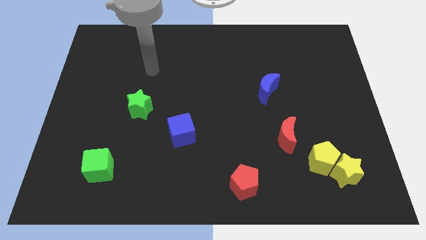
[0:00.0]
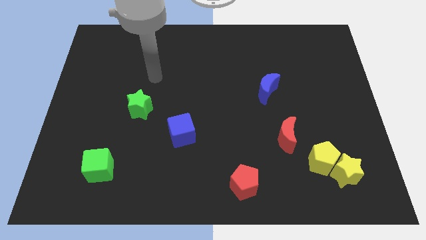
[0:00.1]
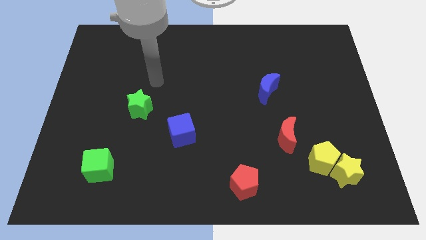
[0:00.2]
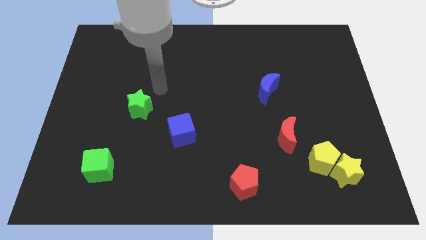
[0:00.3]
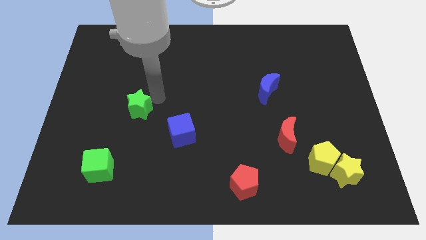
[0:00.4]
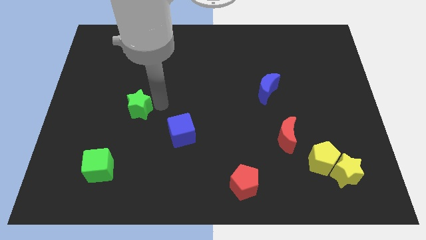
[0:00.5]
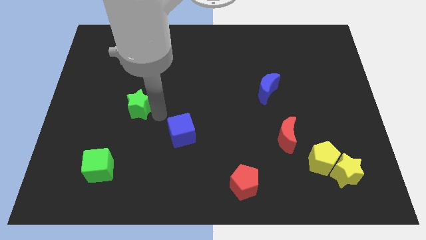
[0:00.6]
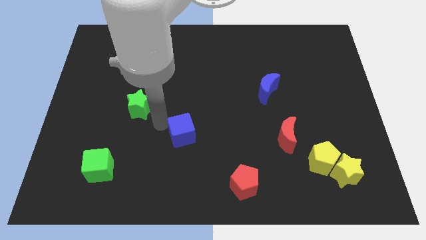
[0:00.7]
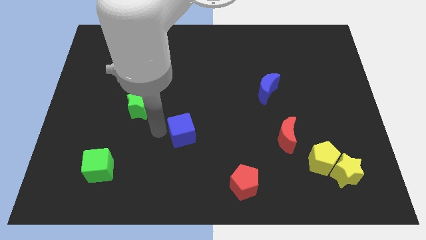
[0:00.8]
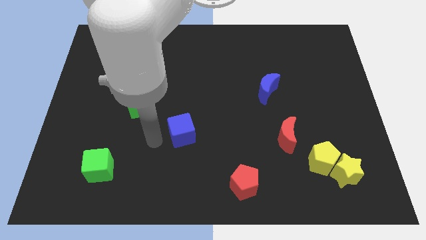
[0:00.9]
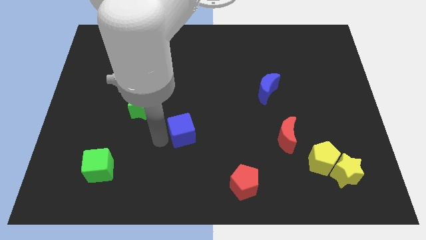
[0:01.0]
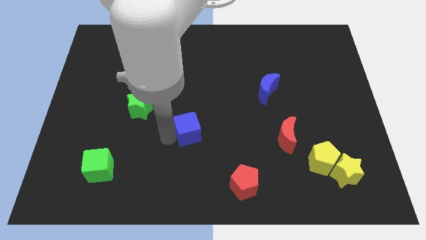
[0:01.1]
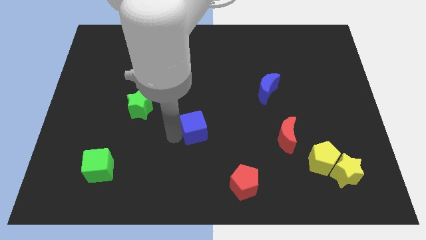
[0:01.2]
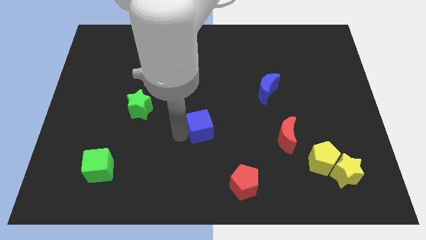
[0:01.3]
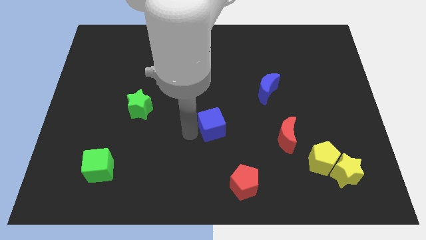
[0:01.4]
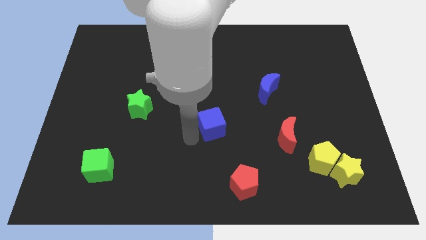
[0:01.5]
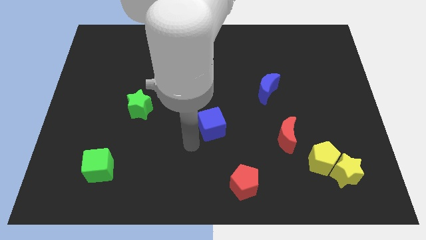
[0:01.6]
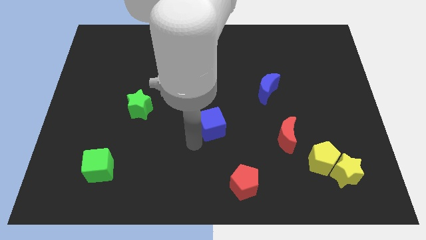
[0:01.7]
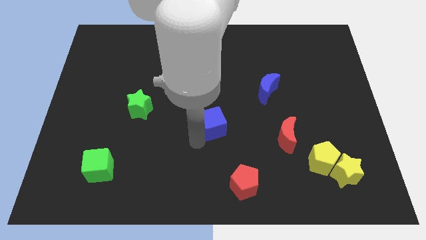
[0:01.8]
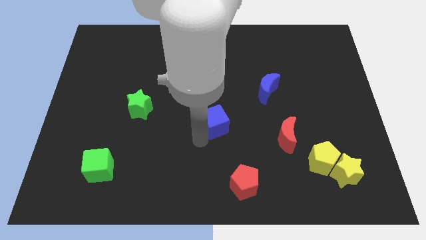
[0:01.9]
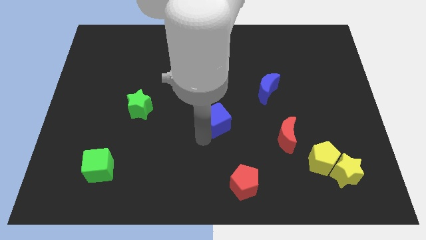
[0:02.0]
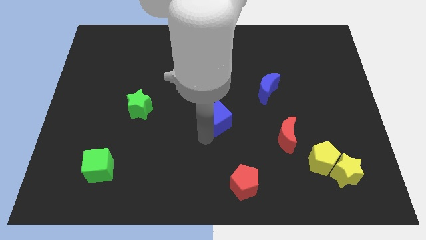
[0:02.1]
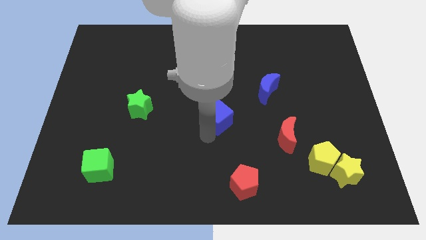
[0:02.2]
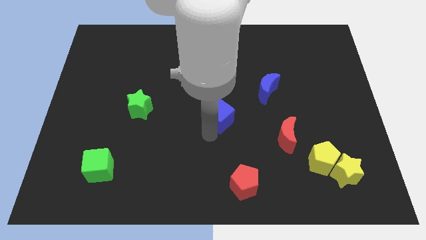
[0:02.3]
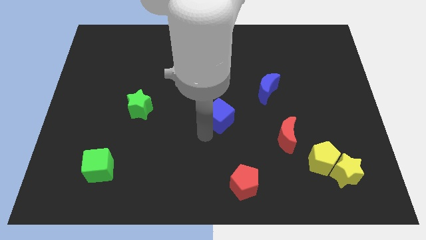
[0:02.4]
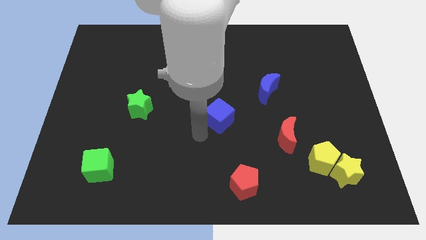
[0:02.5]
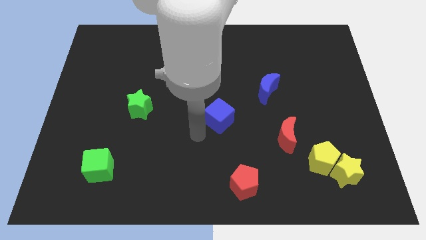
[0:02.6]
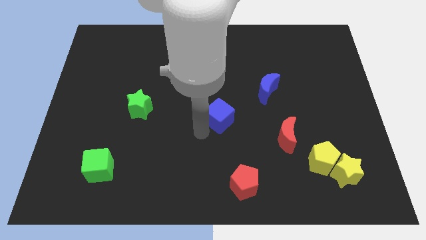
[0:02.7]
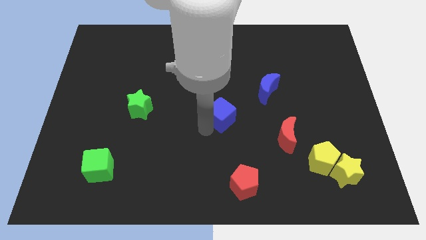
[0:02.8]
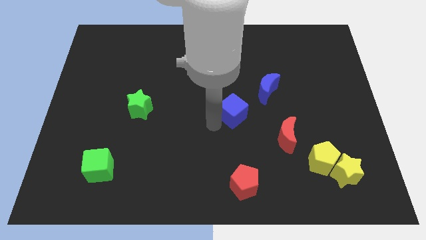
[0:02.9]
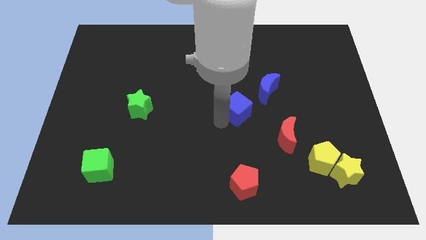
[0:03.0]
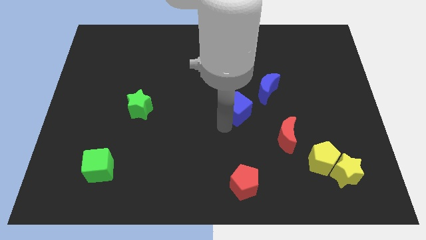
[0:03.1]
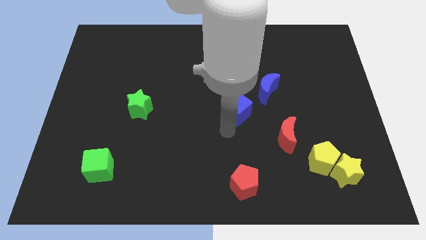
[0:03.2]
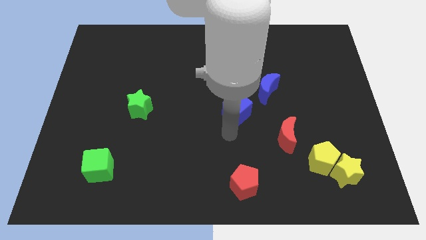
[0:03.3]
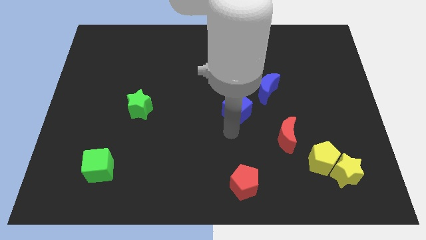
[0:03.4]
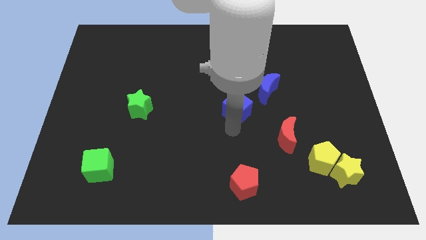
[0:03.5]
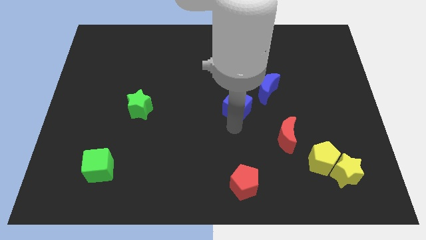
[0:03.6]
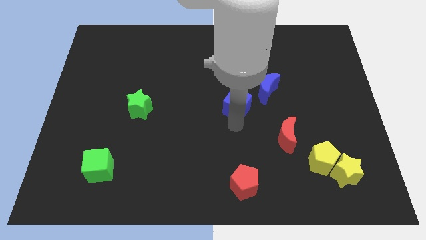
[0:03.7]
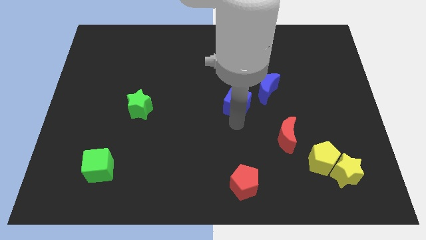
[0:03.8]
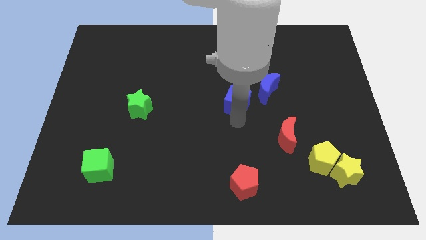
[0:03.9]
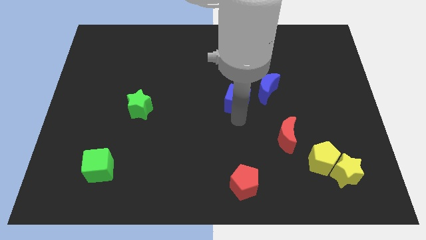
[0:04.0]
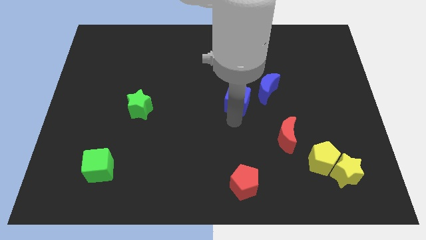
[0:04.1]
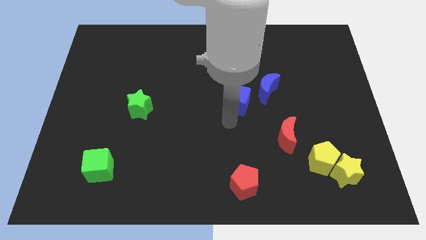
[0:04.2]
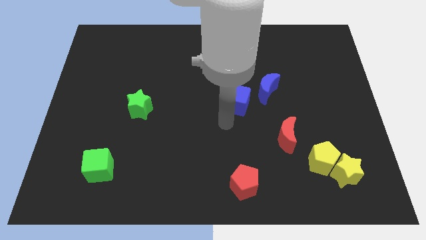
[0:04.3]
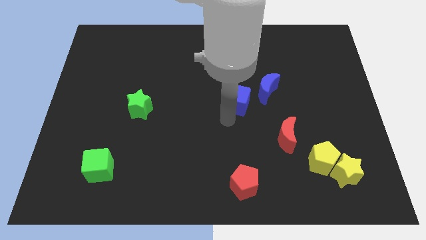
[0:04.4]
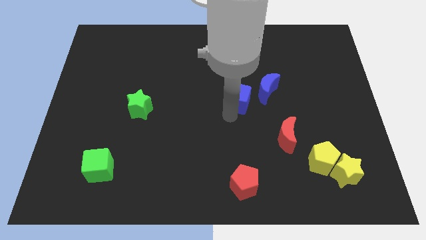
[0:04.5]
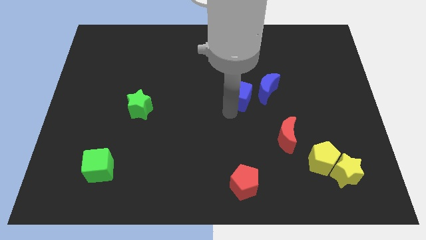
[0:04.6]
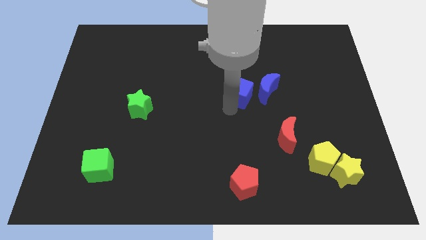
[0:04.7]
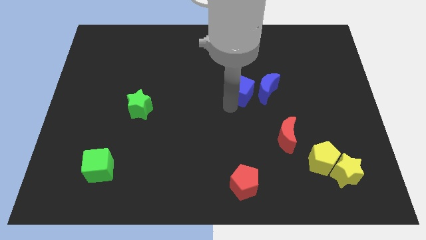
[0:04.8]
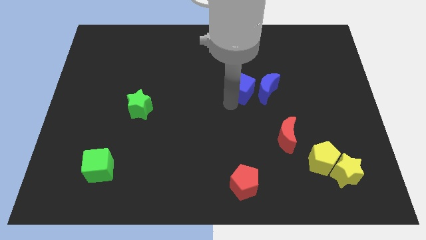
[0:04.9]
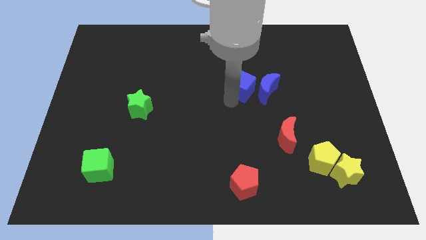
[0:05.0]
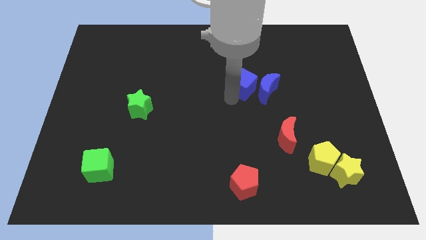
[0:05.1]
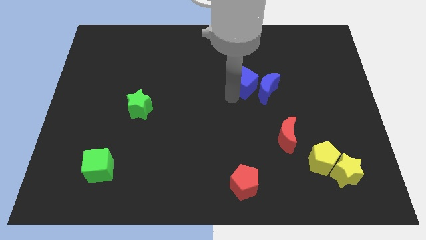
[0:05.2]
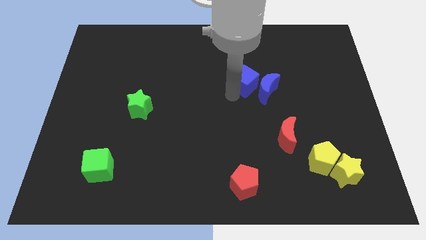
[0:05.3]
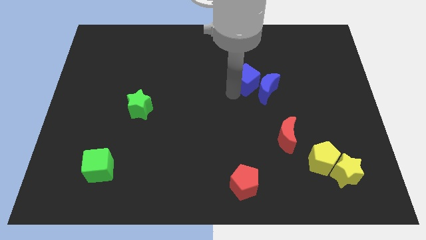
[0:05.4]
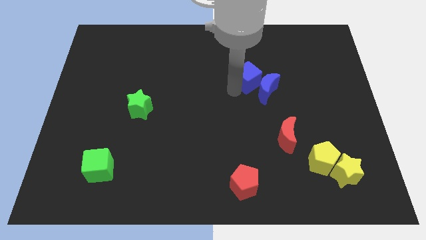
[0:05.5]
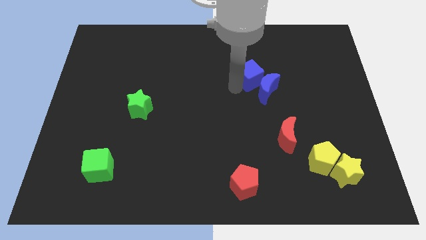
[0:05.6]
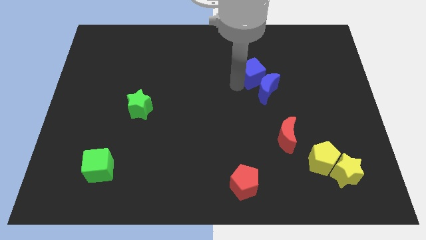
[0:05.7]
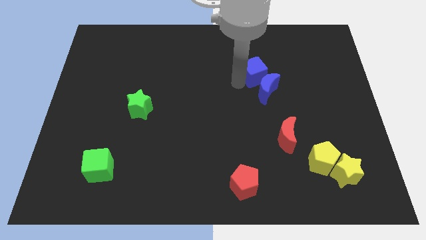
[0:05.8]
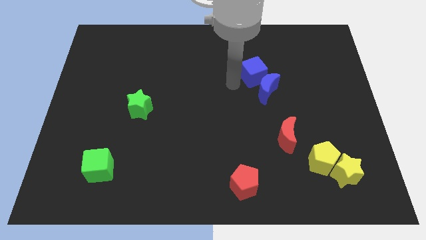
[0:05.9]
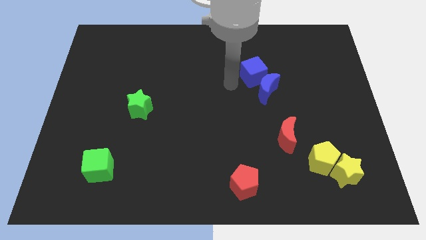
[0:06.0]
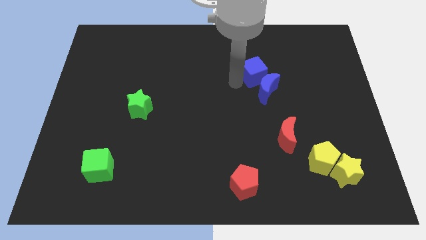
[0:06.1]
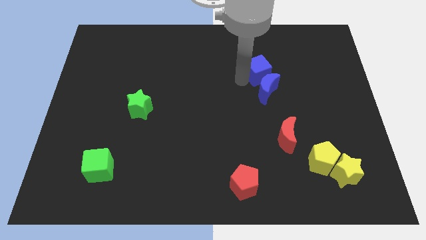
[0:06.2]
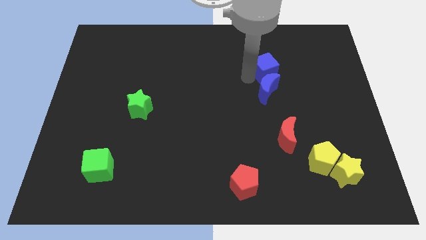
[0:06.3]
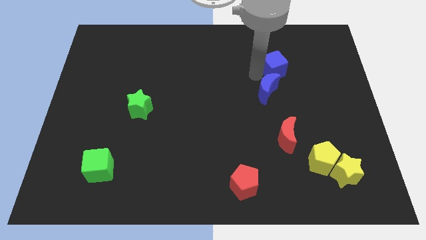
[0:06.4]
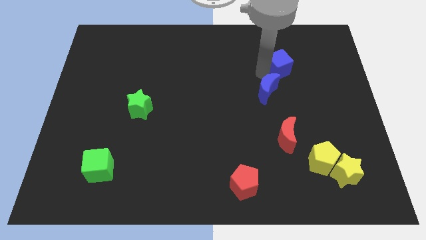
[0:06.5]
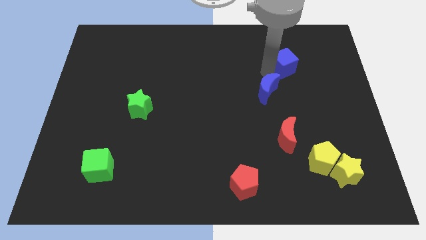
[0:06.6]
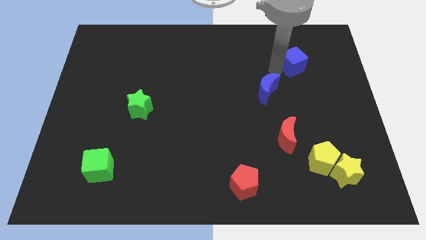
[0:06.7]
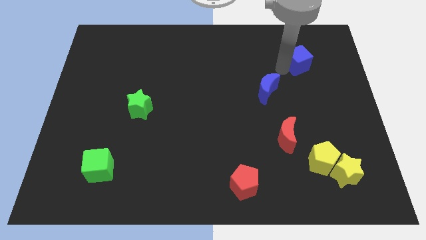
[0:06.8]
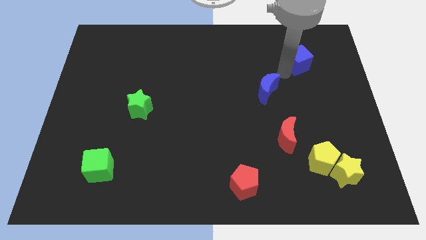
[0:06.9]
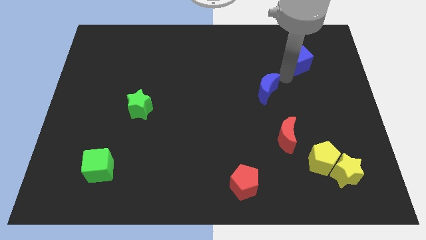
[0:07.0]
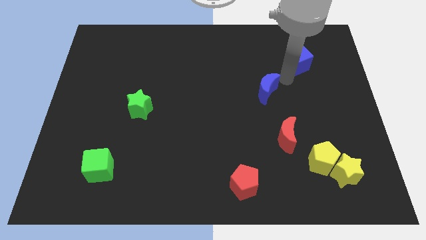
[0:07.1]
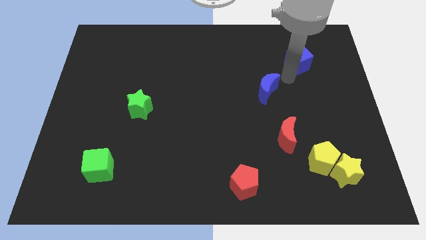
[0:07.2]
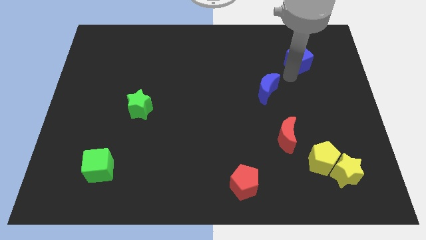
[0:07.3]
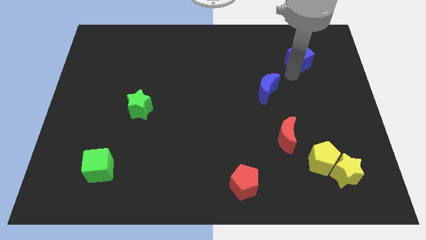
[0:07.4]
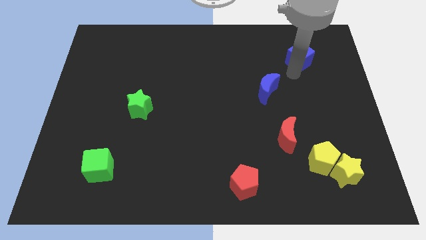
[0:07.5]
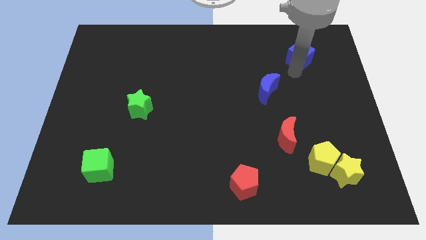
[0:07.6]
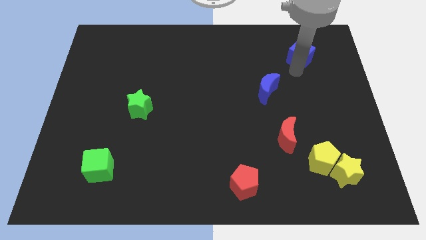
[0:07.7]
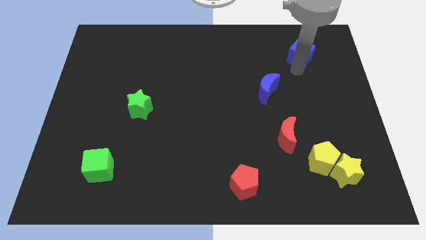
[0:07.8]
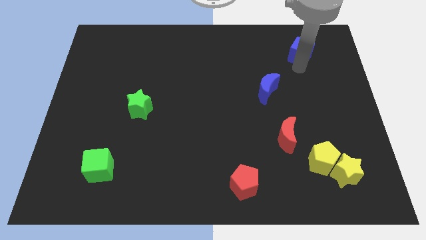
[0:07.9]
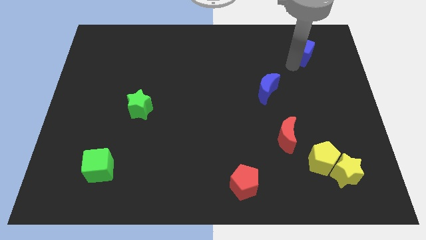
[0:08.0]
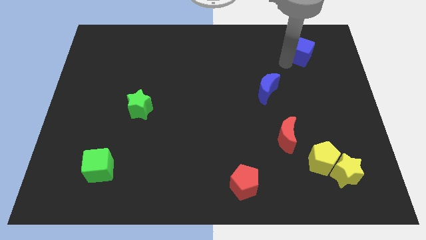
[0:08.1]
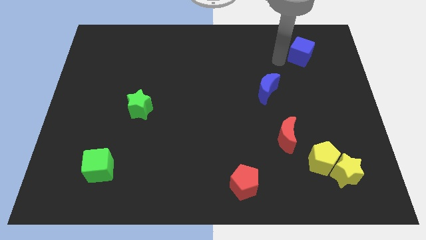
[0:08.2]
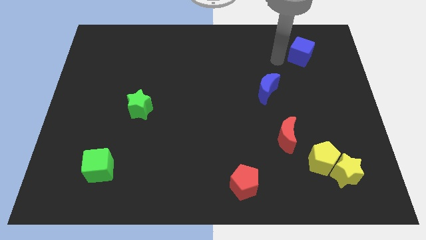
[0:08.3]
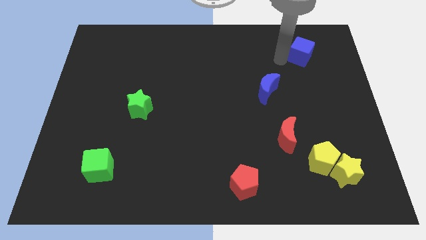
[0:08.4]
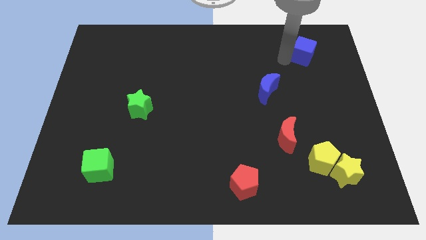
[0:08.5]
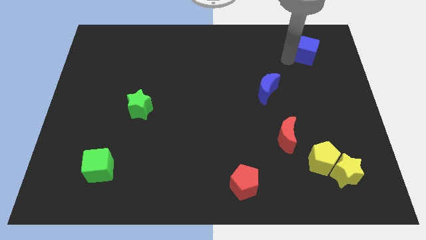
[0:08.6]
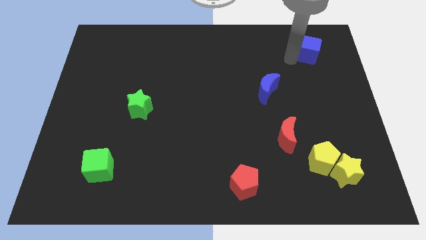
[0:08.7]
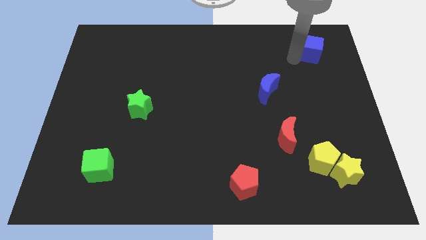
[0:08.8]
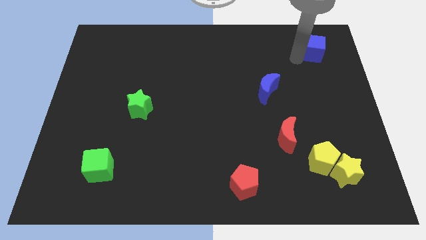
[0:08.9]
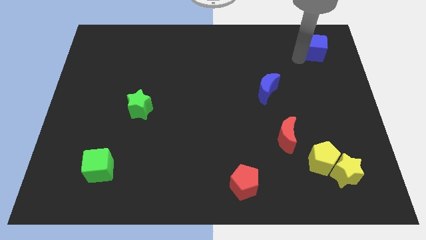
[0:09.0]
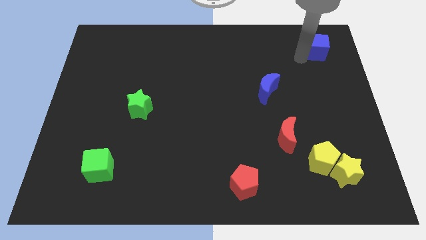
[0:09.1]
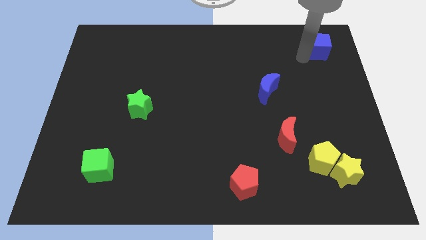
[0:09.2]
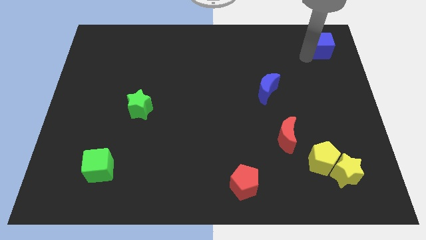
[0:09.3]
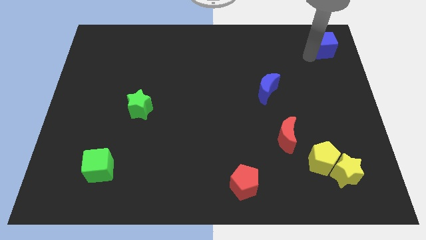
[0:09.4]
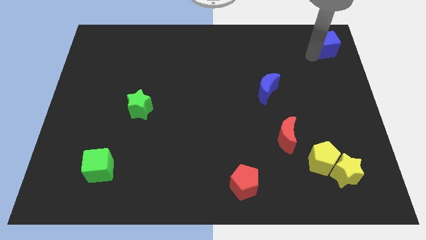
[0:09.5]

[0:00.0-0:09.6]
slide the blue cube to the upper right corner
